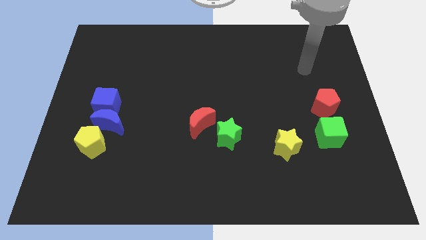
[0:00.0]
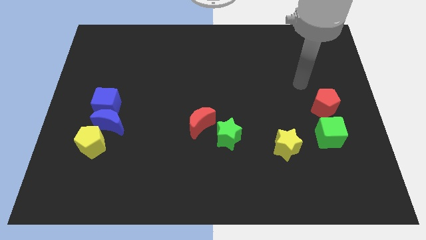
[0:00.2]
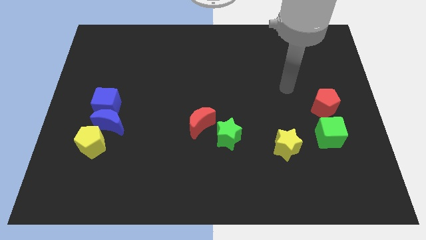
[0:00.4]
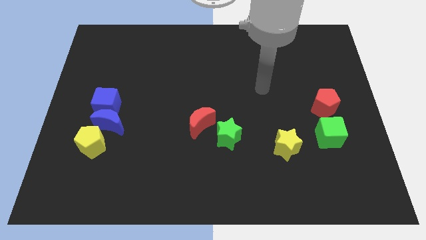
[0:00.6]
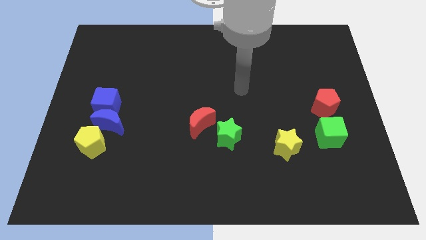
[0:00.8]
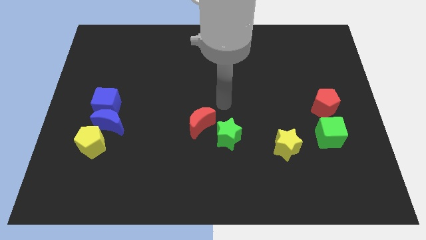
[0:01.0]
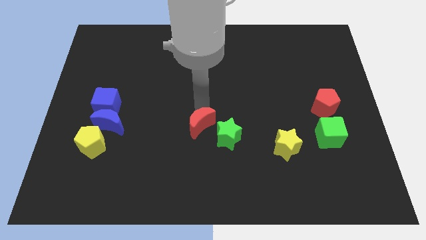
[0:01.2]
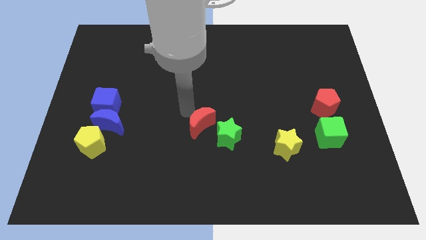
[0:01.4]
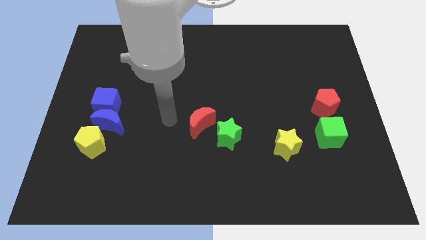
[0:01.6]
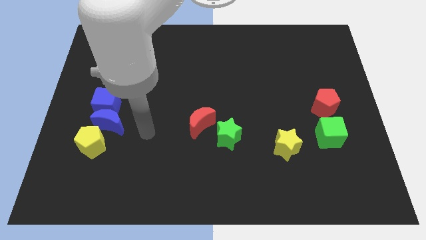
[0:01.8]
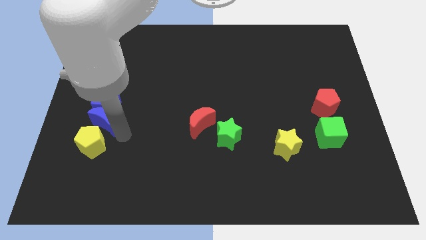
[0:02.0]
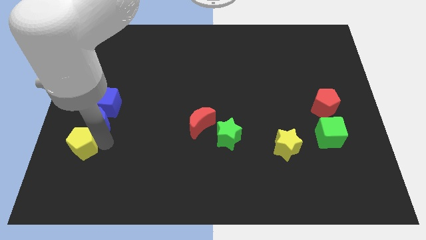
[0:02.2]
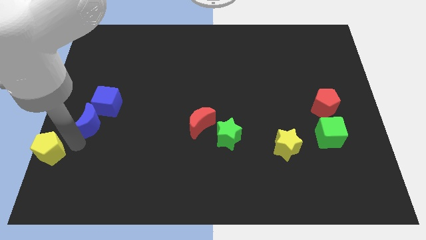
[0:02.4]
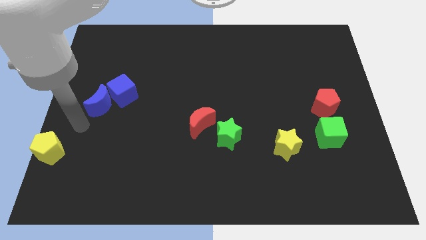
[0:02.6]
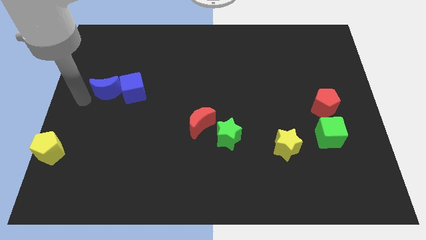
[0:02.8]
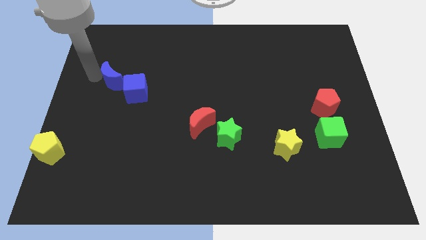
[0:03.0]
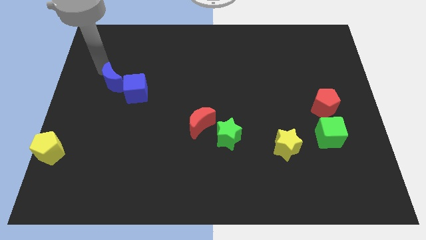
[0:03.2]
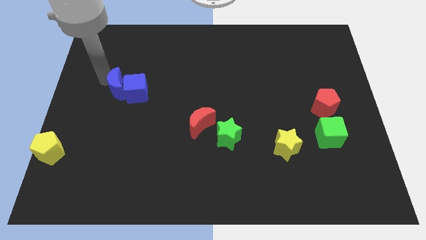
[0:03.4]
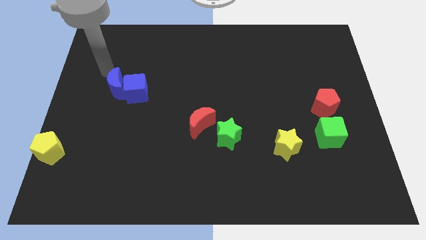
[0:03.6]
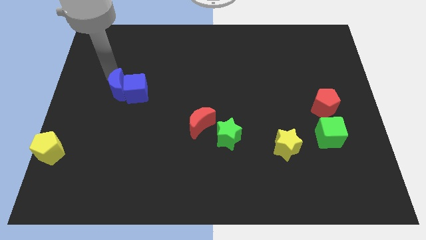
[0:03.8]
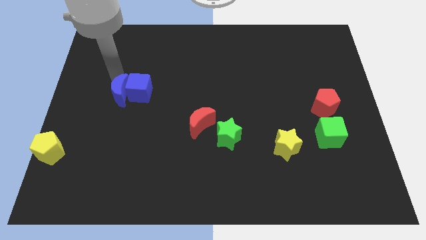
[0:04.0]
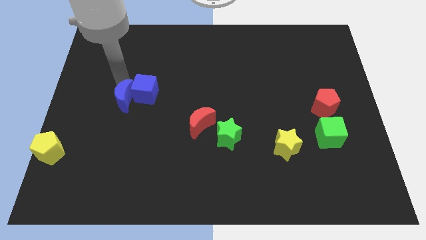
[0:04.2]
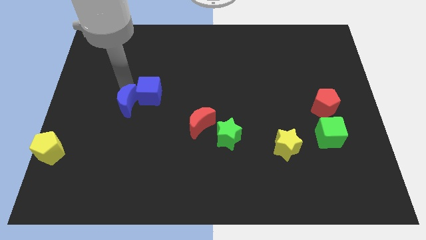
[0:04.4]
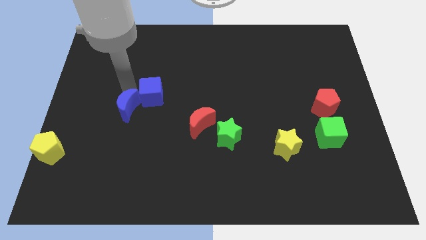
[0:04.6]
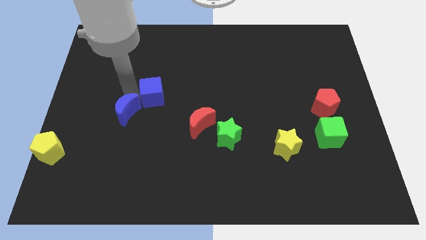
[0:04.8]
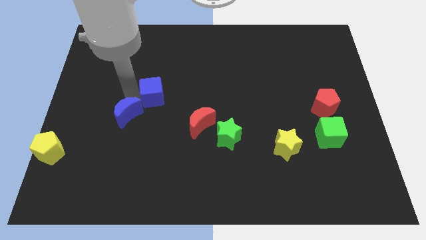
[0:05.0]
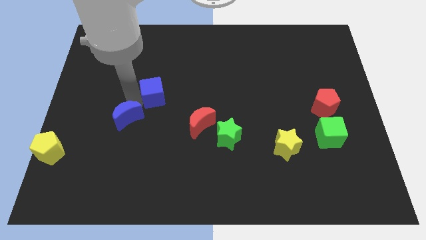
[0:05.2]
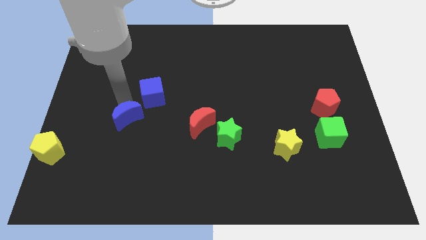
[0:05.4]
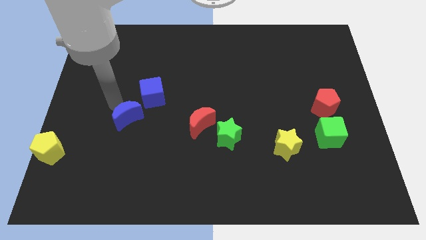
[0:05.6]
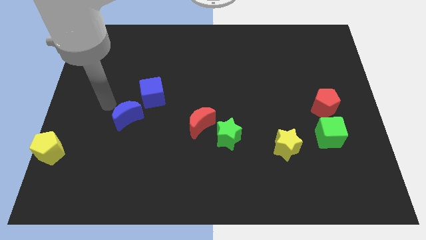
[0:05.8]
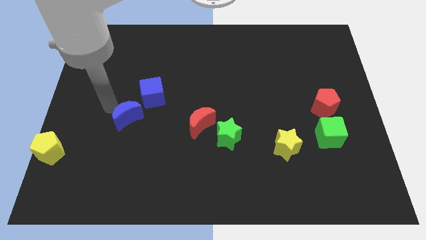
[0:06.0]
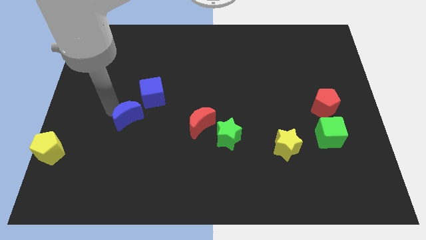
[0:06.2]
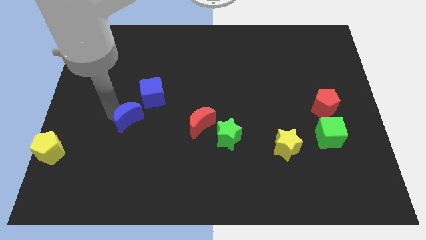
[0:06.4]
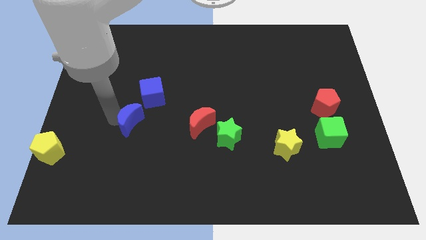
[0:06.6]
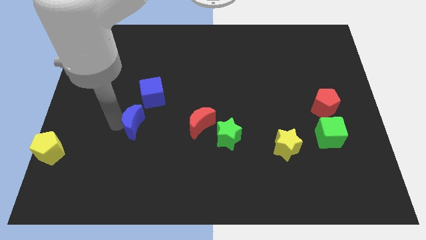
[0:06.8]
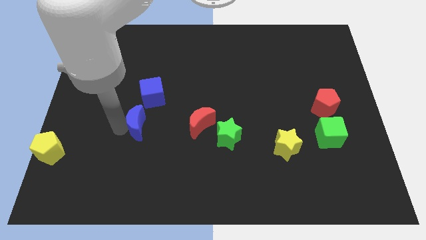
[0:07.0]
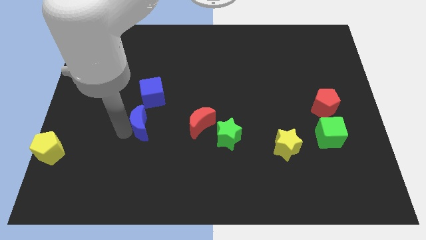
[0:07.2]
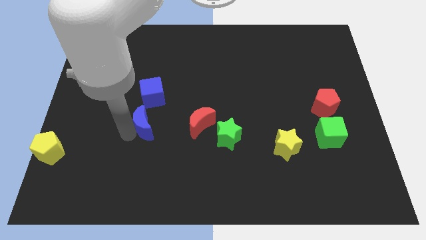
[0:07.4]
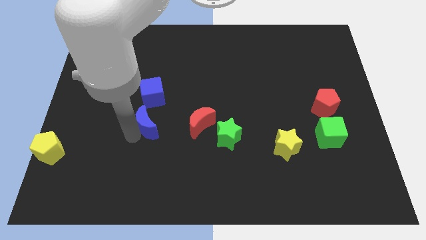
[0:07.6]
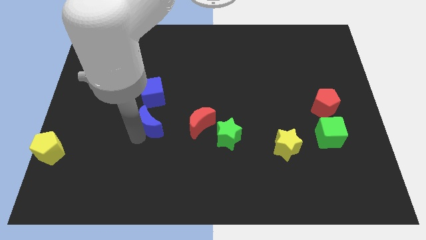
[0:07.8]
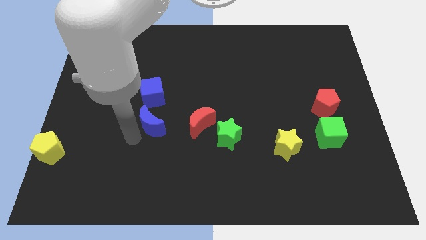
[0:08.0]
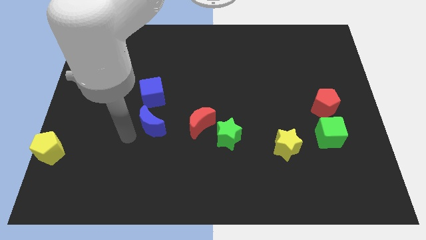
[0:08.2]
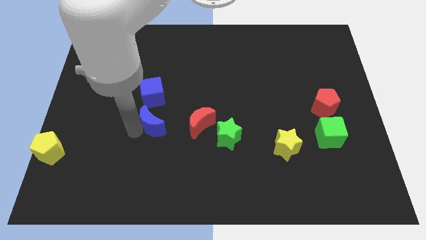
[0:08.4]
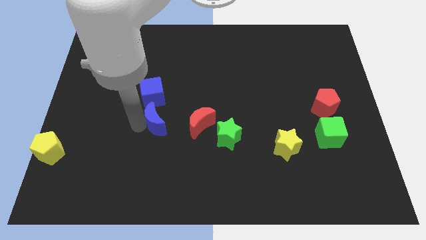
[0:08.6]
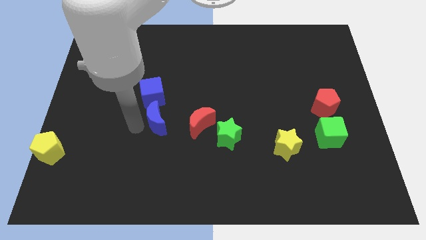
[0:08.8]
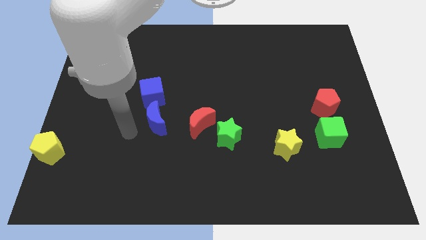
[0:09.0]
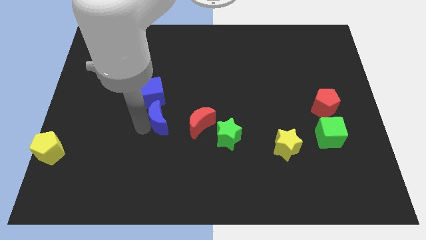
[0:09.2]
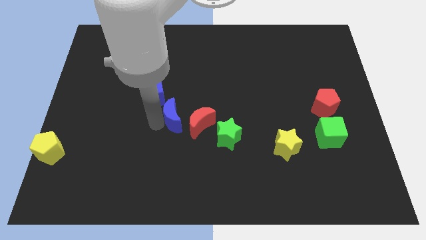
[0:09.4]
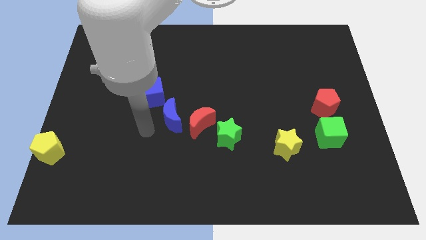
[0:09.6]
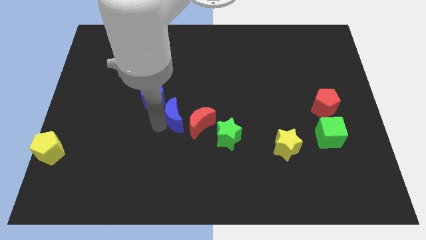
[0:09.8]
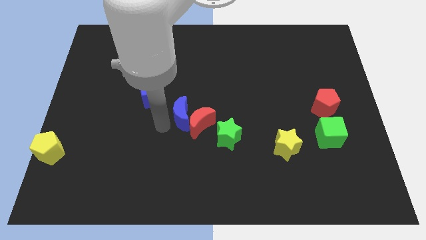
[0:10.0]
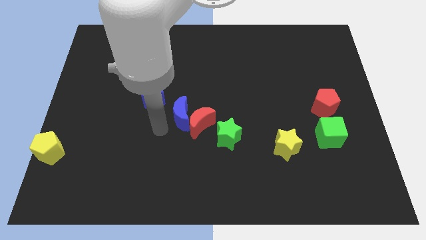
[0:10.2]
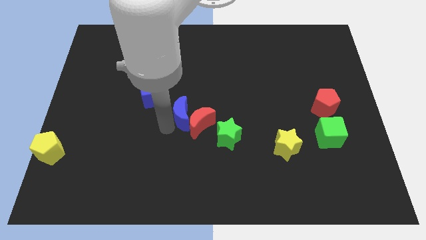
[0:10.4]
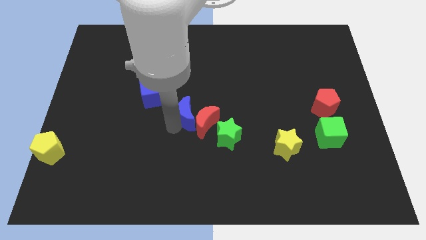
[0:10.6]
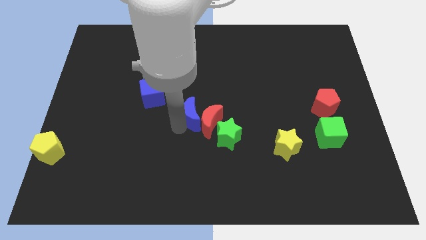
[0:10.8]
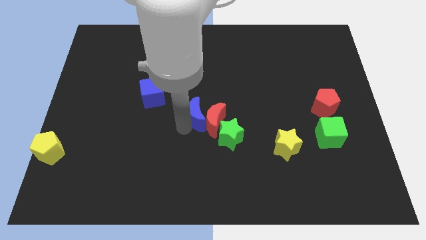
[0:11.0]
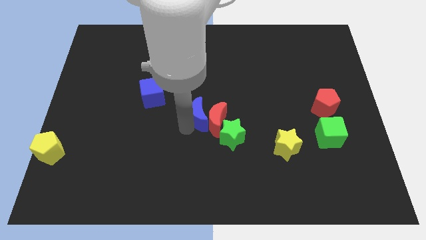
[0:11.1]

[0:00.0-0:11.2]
slide the blue moon to the right

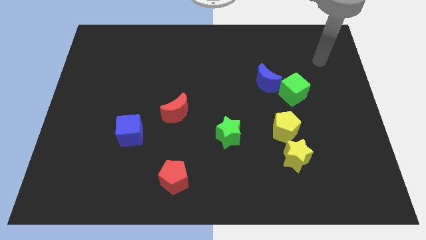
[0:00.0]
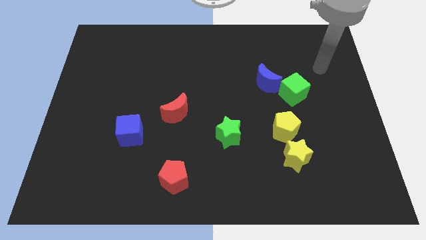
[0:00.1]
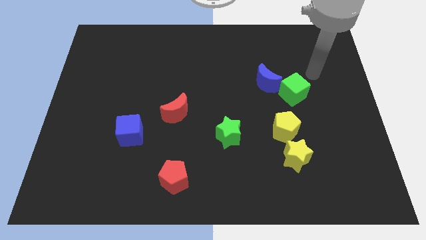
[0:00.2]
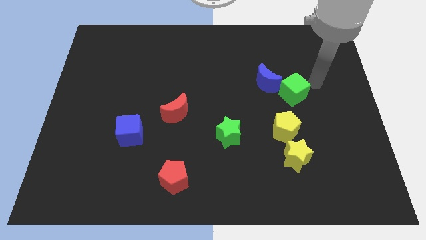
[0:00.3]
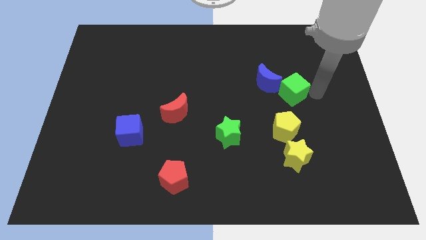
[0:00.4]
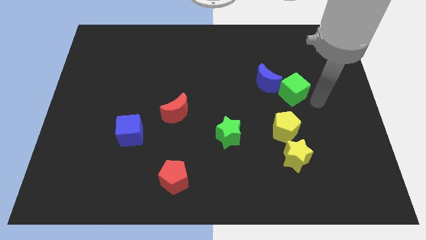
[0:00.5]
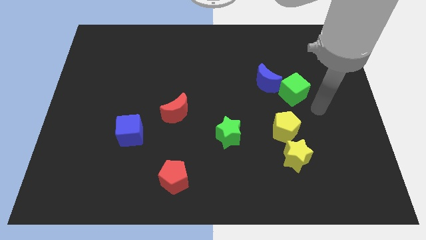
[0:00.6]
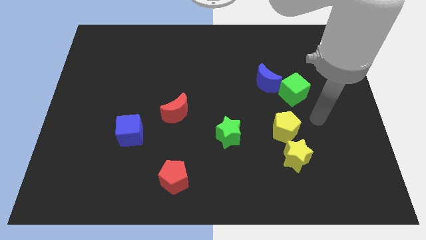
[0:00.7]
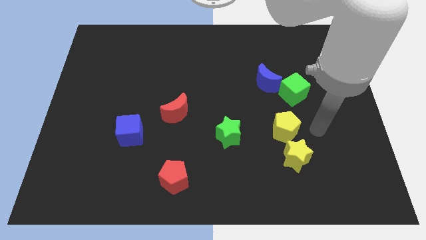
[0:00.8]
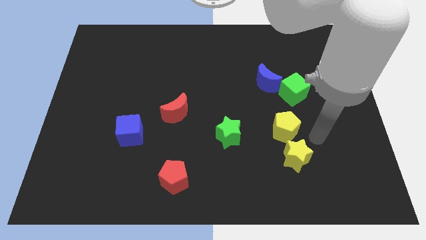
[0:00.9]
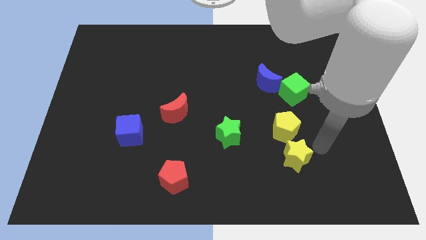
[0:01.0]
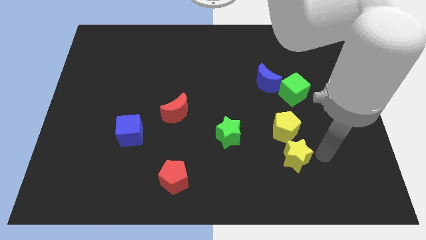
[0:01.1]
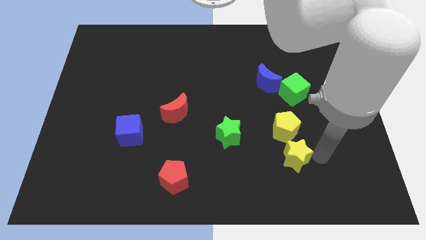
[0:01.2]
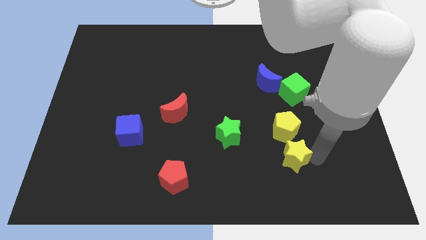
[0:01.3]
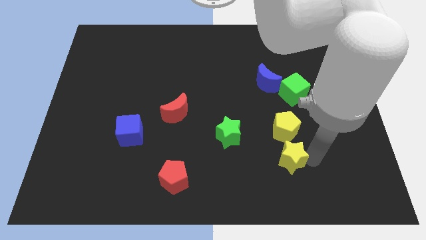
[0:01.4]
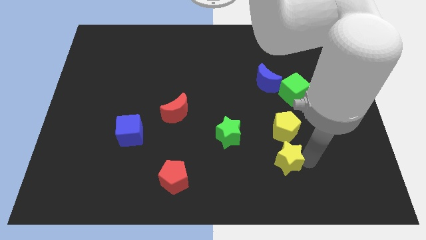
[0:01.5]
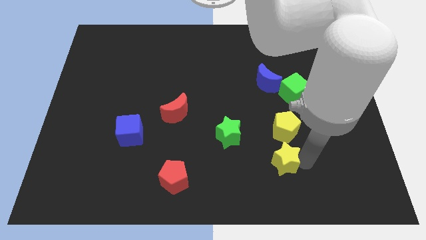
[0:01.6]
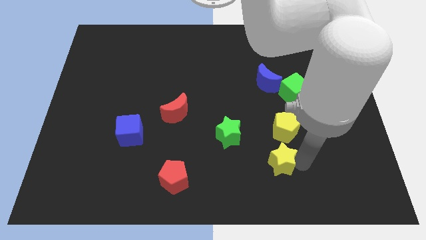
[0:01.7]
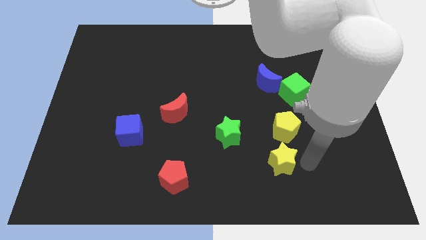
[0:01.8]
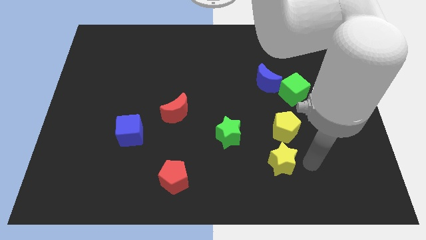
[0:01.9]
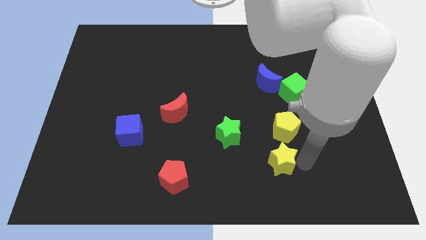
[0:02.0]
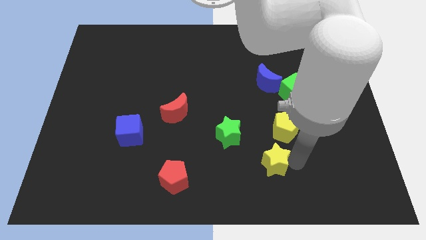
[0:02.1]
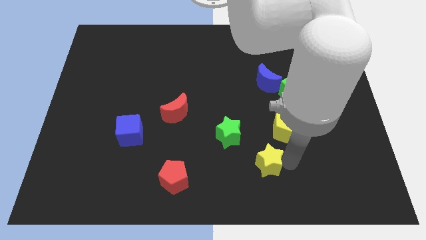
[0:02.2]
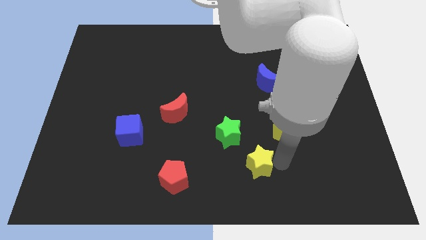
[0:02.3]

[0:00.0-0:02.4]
slightly move the yellow star left
